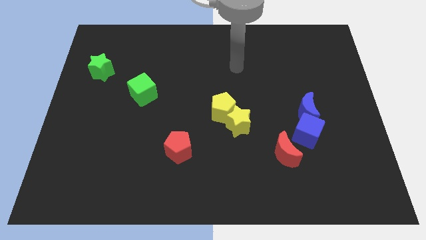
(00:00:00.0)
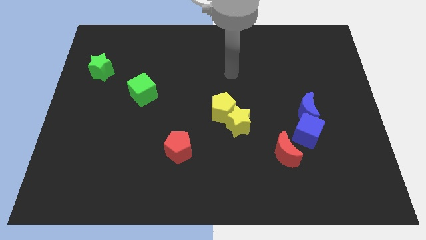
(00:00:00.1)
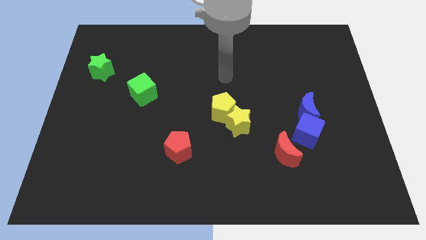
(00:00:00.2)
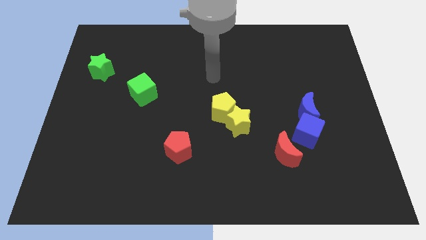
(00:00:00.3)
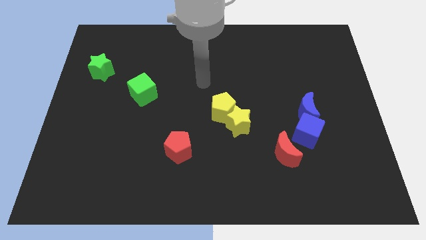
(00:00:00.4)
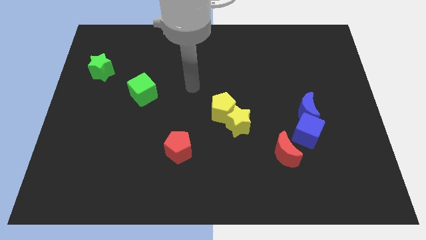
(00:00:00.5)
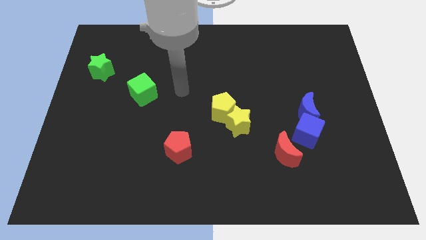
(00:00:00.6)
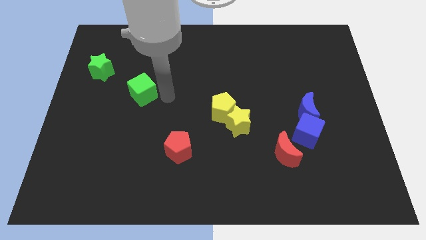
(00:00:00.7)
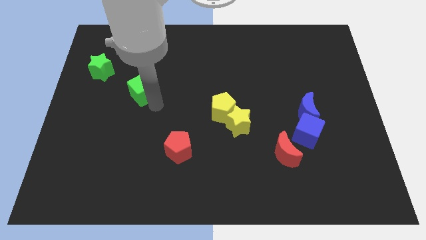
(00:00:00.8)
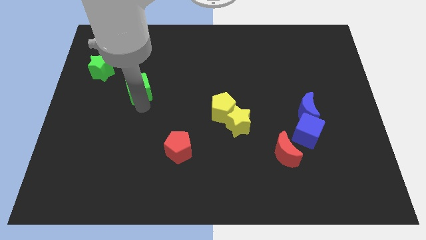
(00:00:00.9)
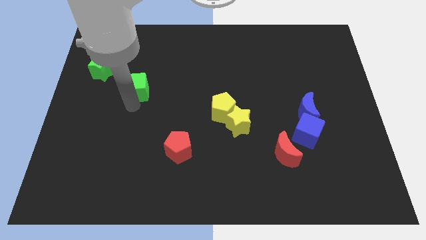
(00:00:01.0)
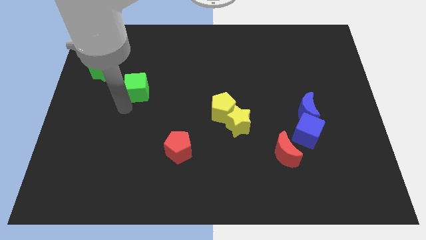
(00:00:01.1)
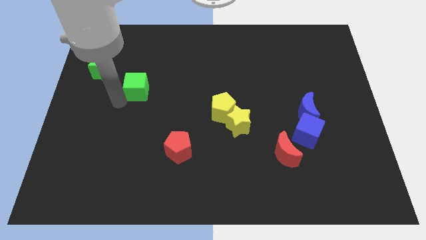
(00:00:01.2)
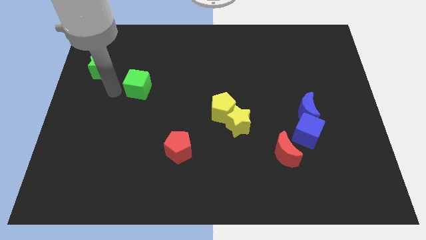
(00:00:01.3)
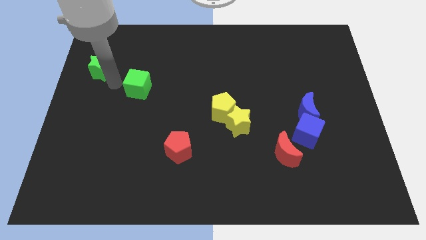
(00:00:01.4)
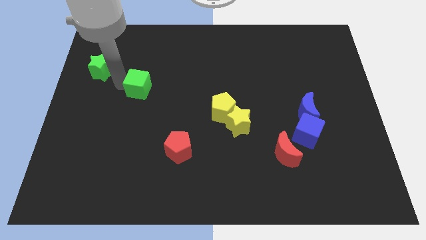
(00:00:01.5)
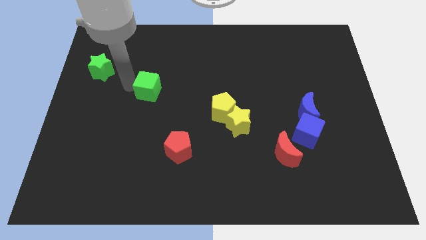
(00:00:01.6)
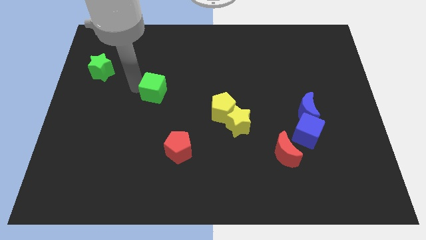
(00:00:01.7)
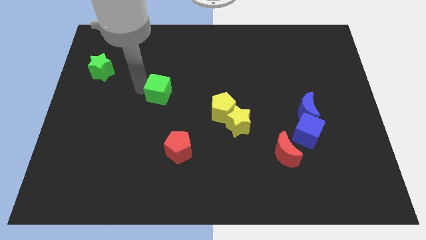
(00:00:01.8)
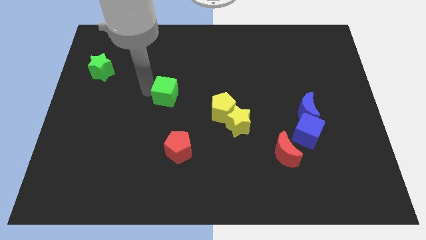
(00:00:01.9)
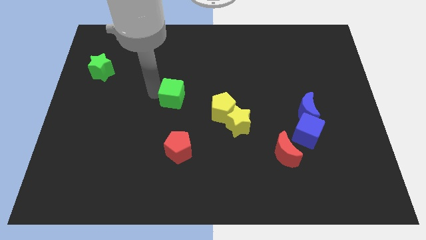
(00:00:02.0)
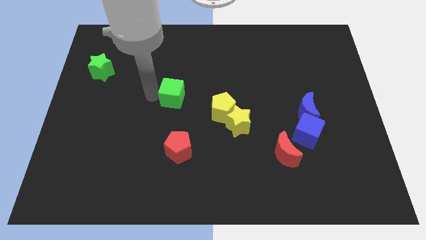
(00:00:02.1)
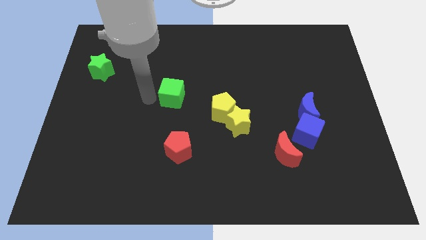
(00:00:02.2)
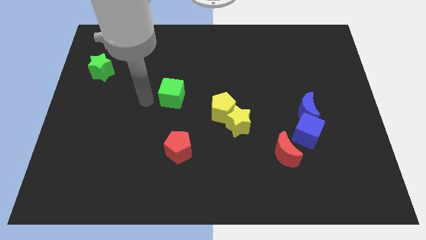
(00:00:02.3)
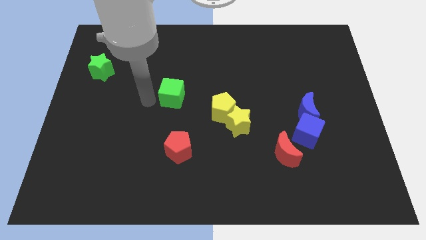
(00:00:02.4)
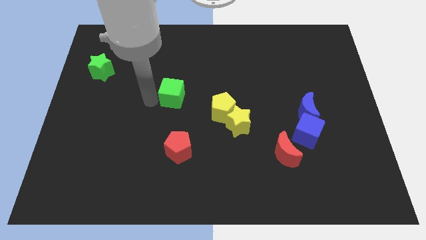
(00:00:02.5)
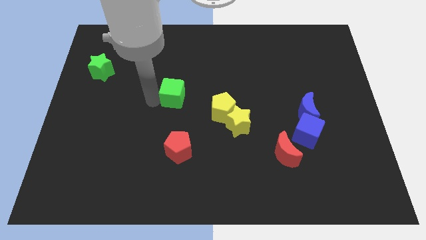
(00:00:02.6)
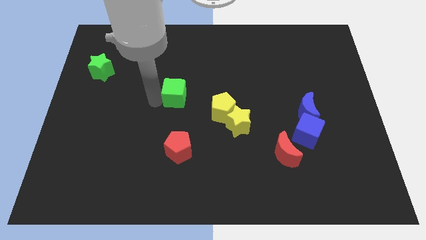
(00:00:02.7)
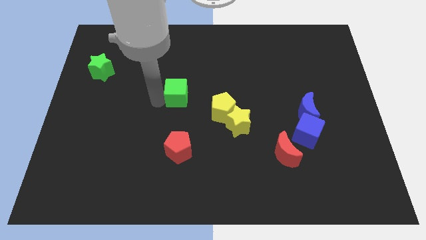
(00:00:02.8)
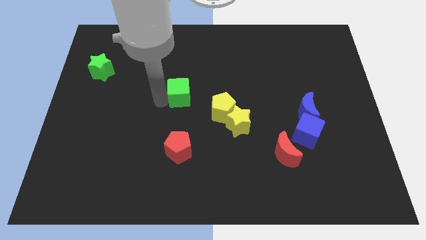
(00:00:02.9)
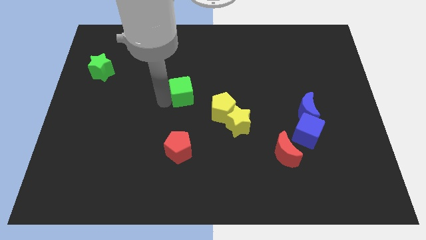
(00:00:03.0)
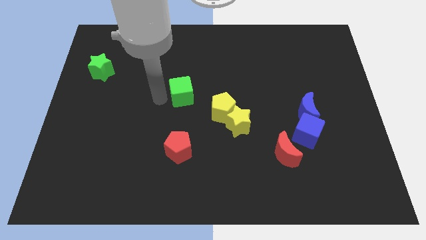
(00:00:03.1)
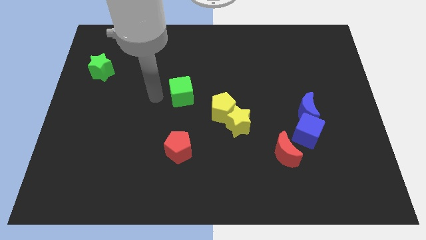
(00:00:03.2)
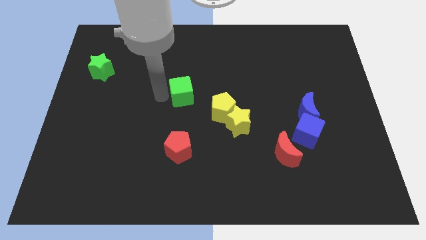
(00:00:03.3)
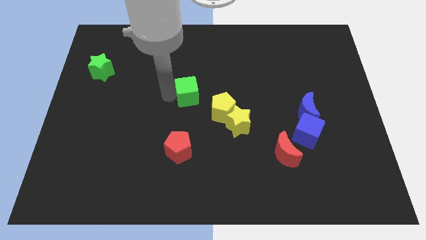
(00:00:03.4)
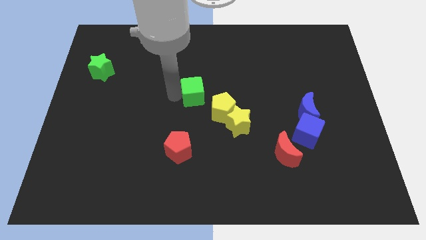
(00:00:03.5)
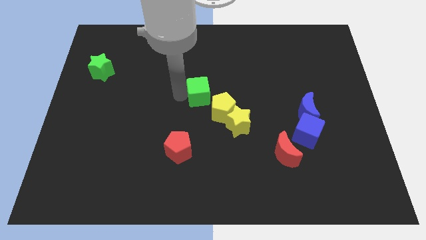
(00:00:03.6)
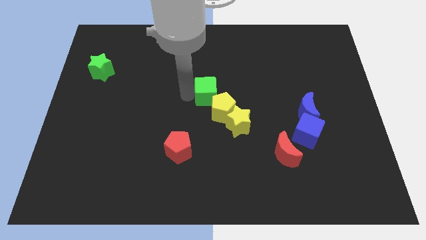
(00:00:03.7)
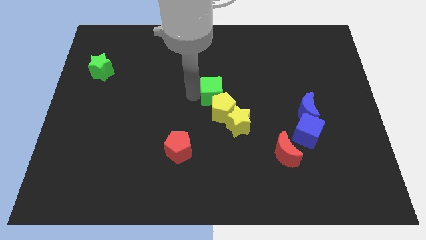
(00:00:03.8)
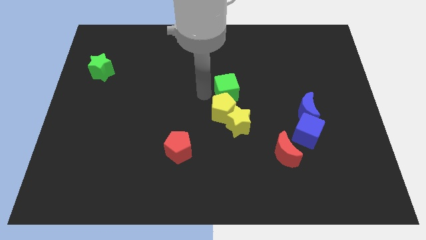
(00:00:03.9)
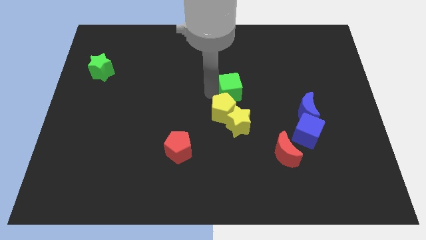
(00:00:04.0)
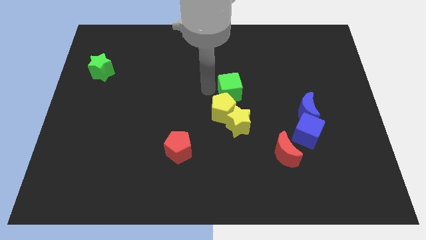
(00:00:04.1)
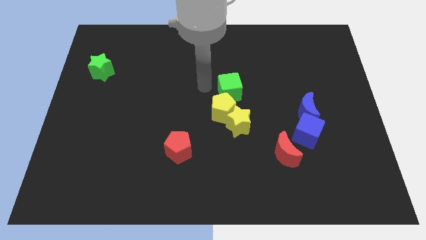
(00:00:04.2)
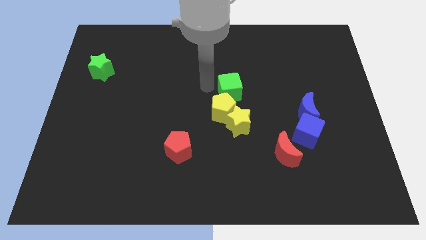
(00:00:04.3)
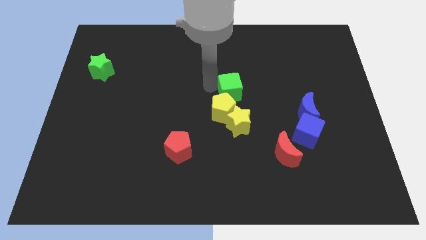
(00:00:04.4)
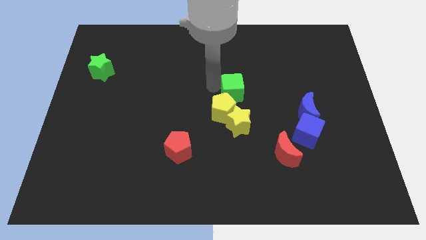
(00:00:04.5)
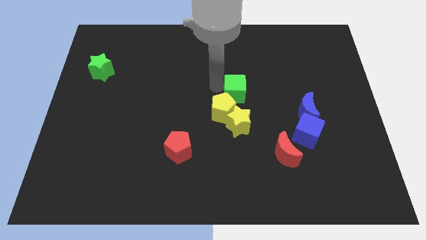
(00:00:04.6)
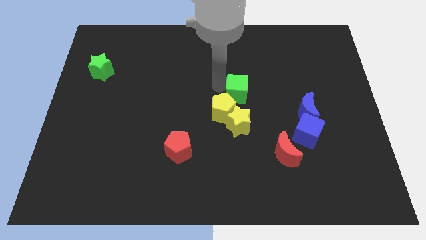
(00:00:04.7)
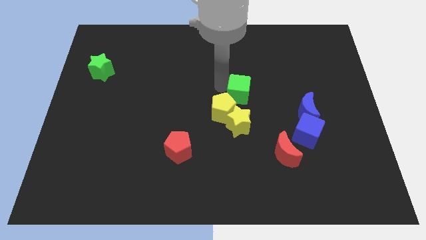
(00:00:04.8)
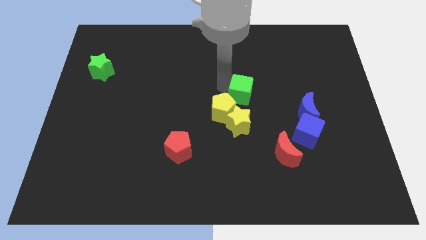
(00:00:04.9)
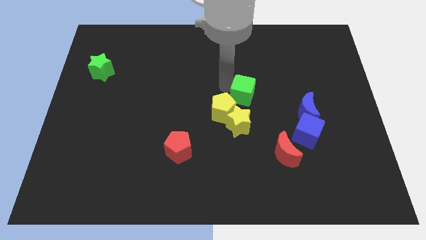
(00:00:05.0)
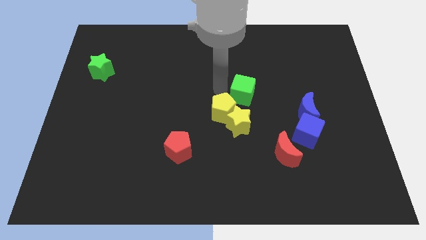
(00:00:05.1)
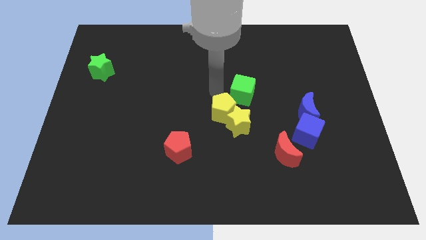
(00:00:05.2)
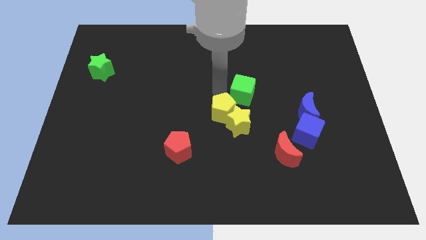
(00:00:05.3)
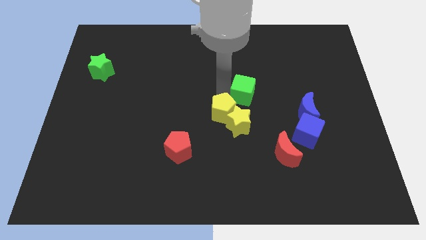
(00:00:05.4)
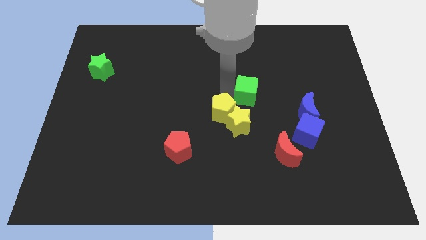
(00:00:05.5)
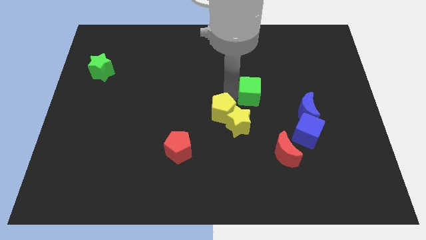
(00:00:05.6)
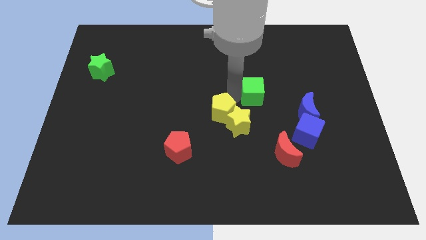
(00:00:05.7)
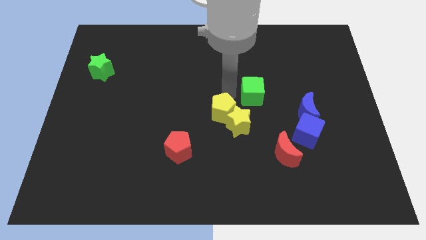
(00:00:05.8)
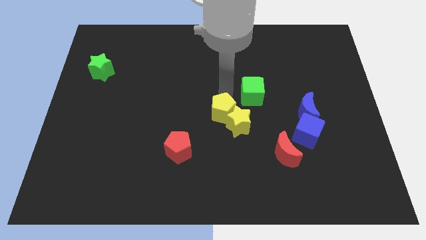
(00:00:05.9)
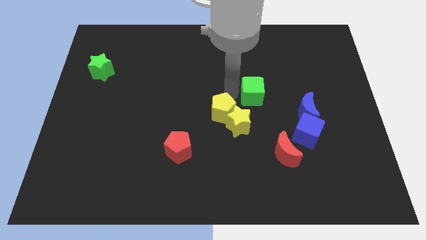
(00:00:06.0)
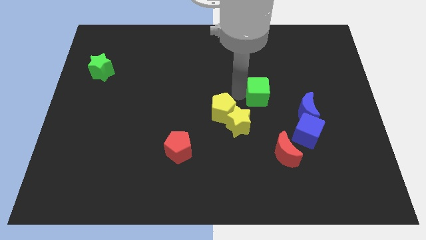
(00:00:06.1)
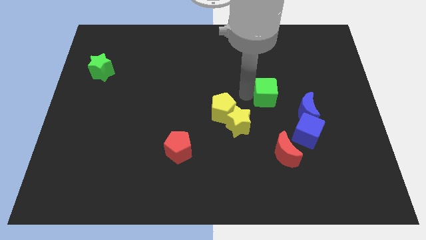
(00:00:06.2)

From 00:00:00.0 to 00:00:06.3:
push the green cube to the top left side of the blue moon

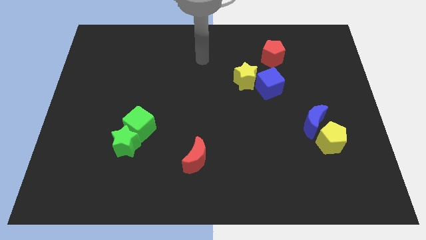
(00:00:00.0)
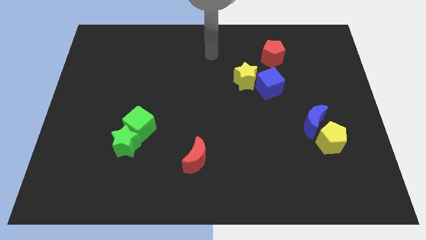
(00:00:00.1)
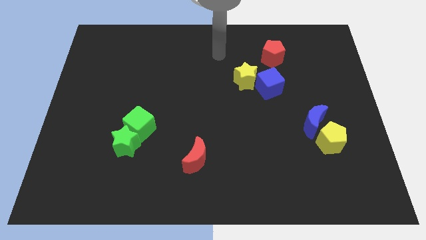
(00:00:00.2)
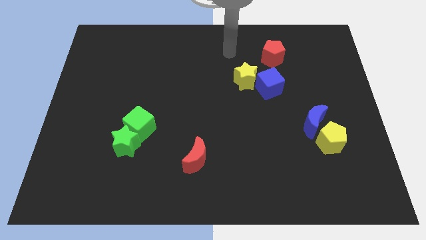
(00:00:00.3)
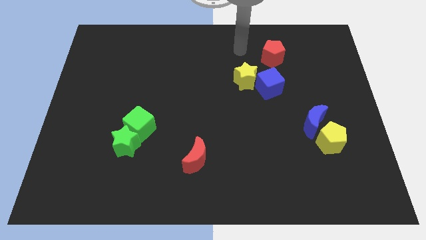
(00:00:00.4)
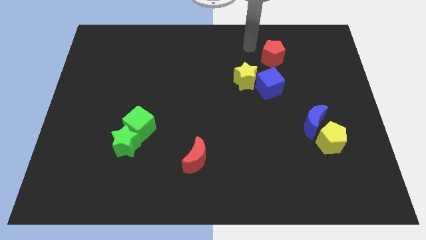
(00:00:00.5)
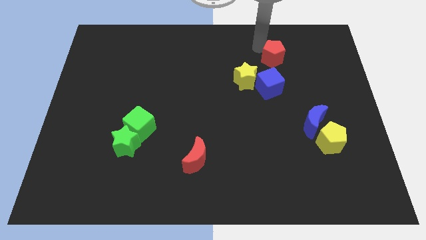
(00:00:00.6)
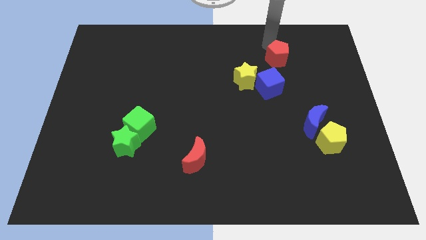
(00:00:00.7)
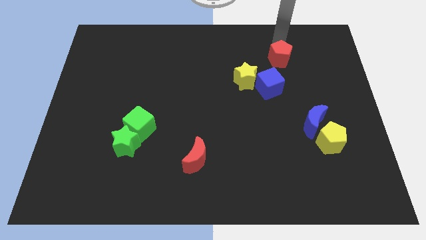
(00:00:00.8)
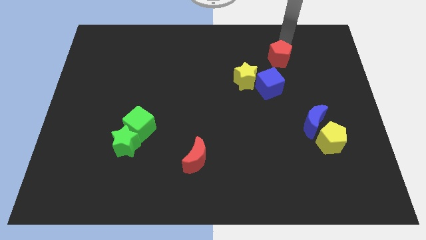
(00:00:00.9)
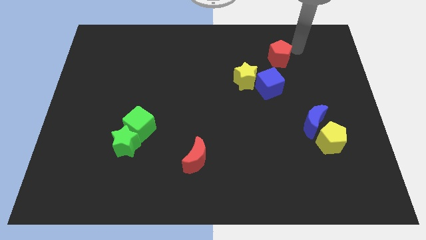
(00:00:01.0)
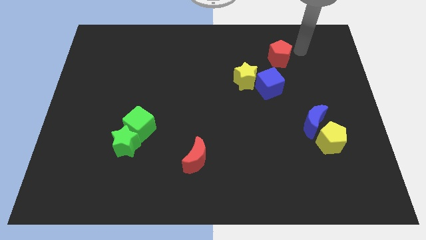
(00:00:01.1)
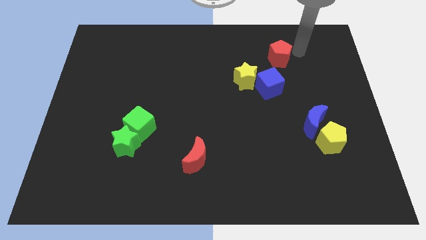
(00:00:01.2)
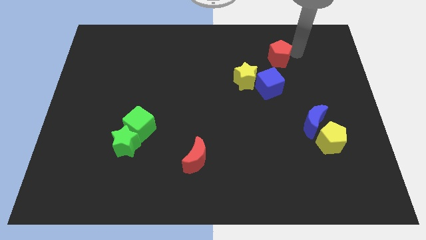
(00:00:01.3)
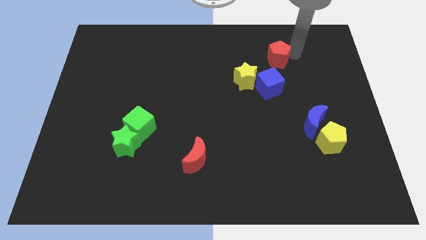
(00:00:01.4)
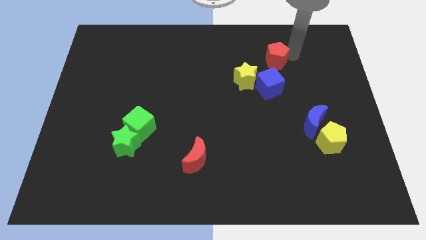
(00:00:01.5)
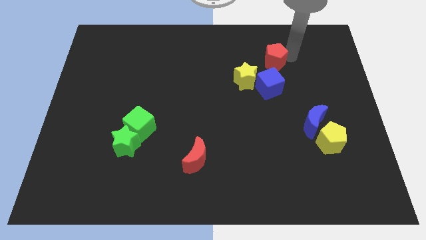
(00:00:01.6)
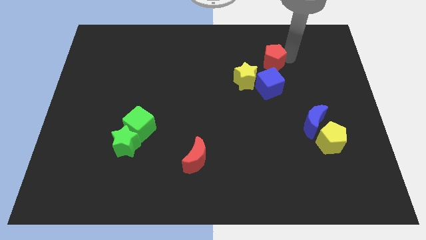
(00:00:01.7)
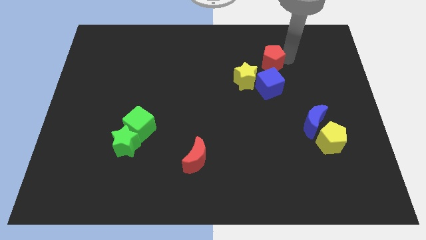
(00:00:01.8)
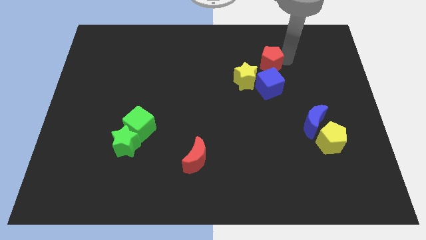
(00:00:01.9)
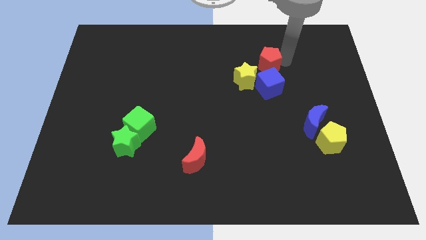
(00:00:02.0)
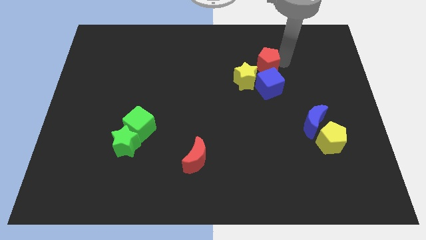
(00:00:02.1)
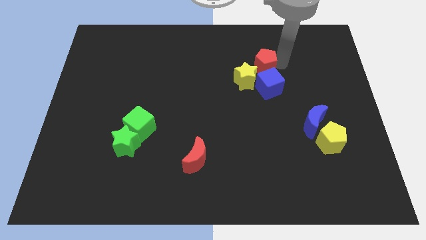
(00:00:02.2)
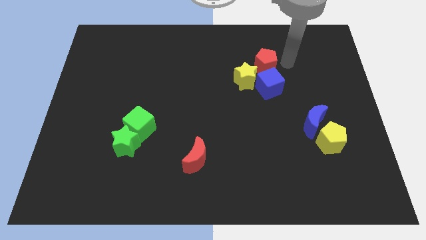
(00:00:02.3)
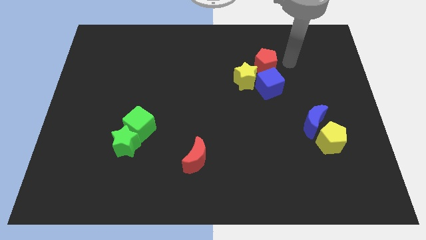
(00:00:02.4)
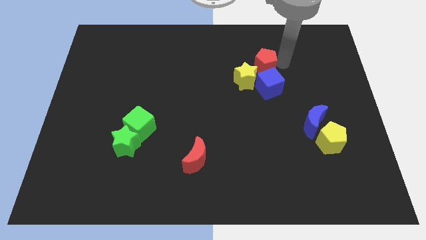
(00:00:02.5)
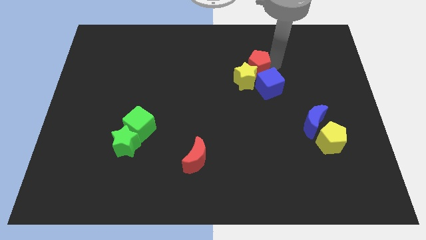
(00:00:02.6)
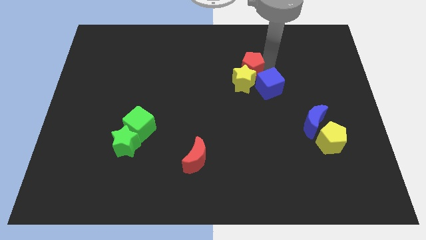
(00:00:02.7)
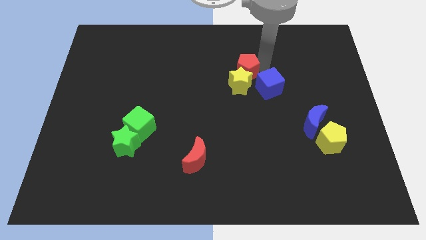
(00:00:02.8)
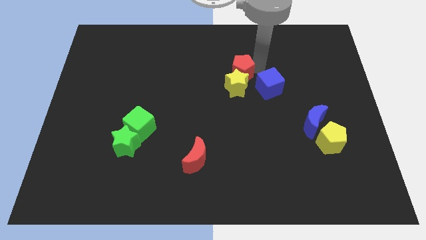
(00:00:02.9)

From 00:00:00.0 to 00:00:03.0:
put the red pentagon just left of the blue cube
